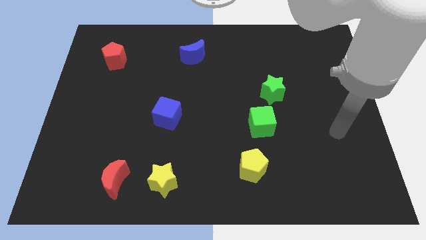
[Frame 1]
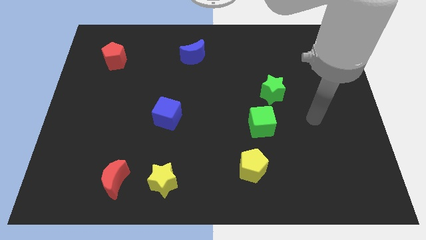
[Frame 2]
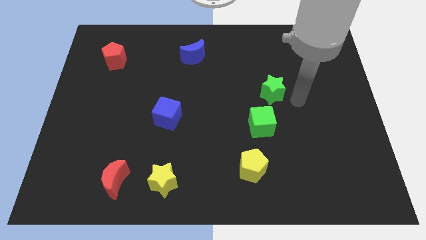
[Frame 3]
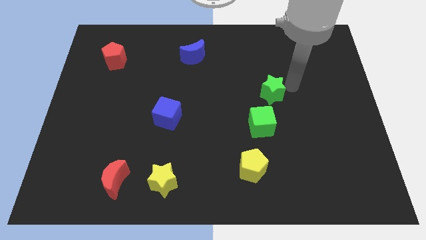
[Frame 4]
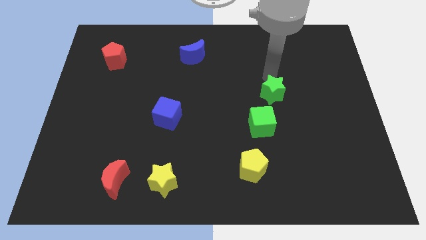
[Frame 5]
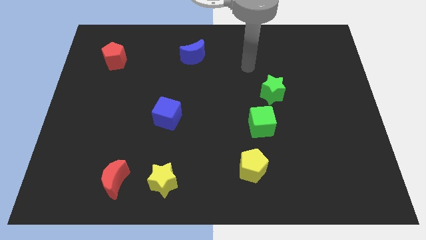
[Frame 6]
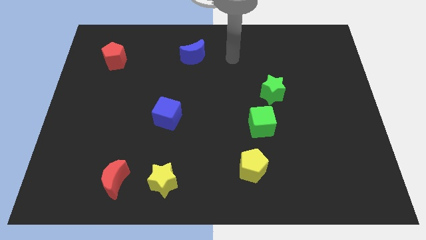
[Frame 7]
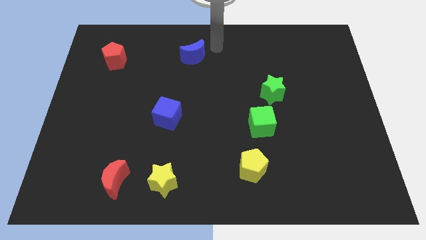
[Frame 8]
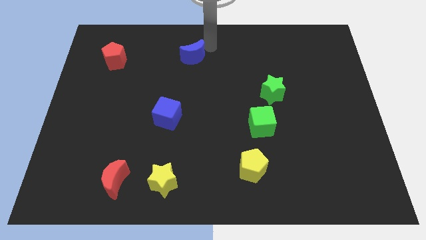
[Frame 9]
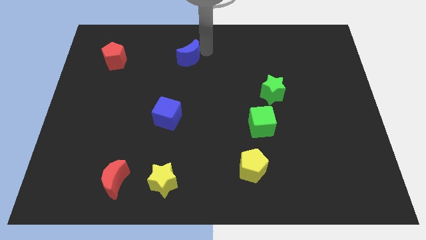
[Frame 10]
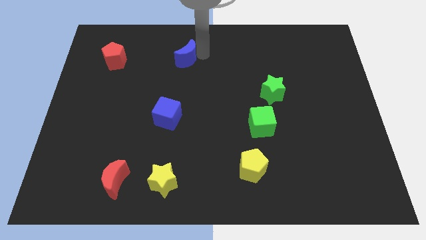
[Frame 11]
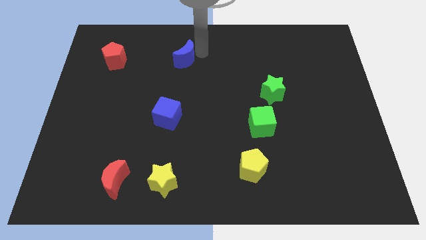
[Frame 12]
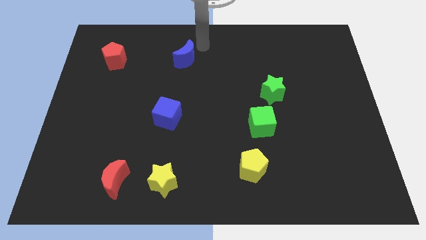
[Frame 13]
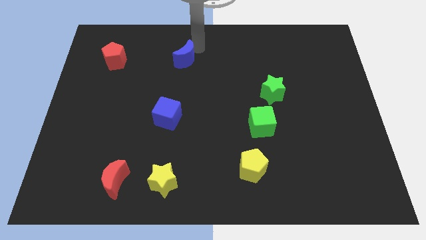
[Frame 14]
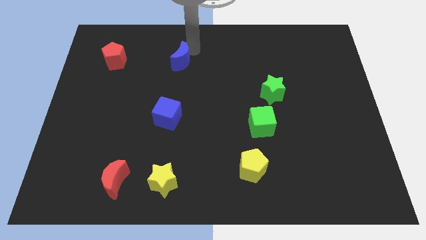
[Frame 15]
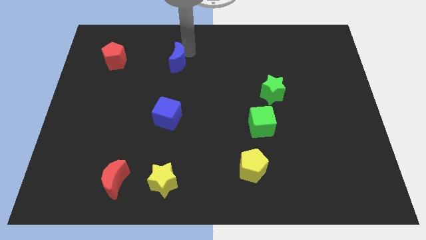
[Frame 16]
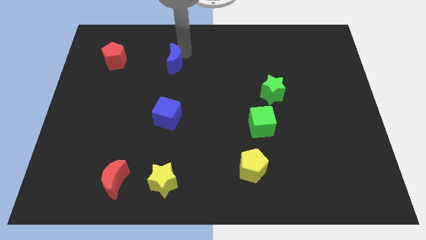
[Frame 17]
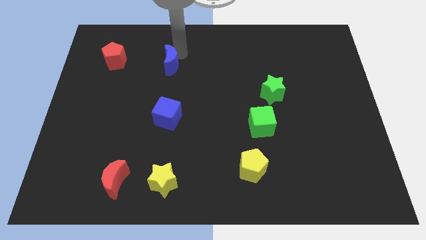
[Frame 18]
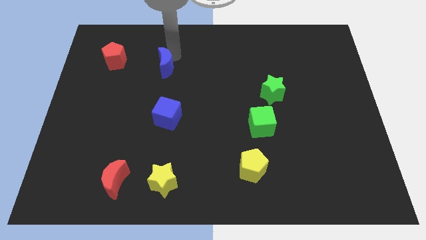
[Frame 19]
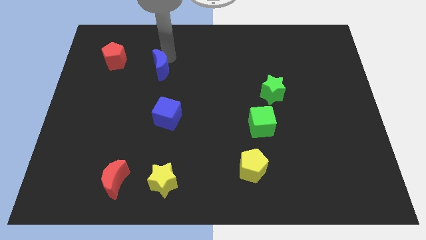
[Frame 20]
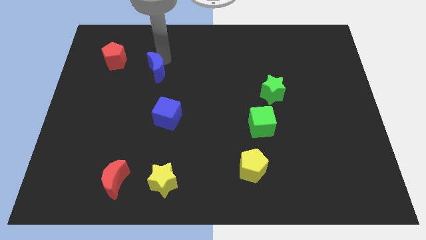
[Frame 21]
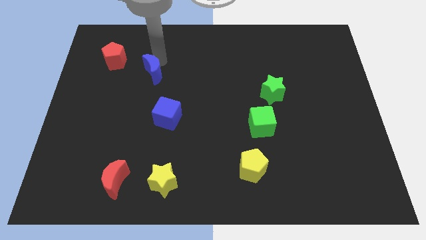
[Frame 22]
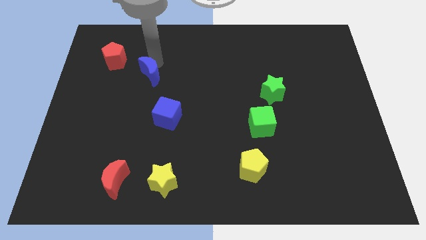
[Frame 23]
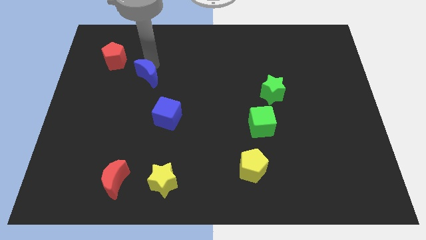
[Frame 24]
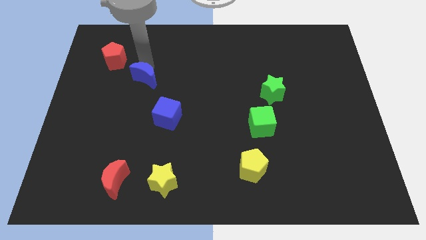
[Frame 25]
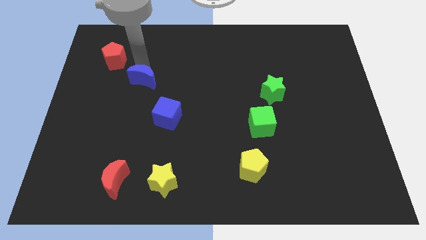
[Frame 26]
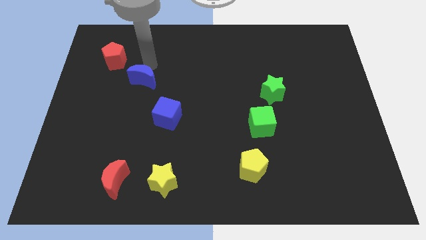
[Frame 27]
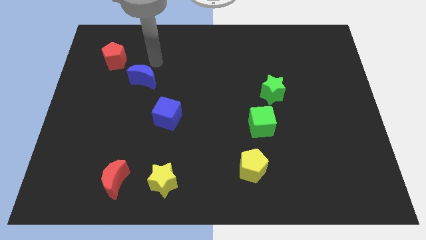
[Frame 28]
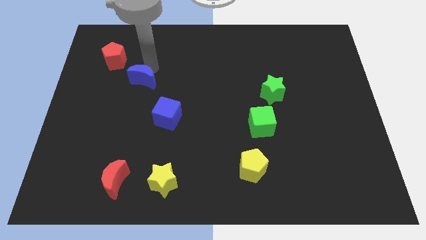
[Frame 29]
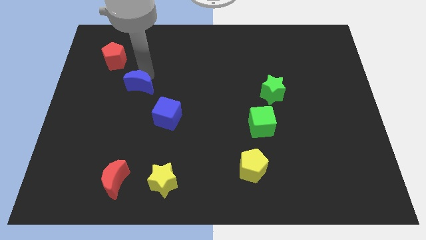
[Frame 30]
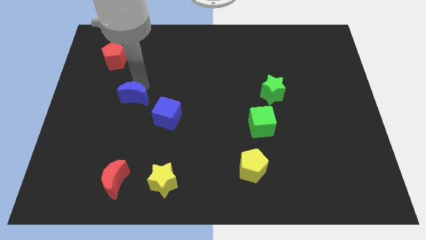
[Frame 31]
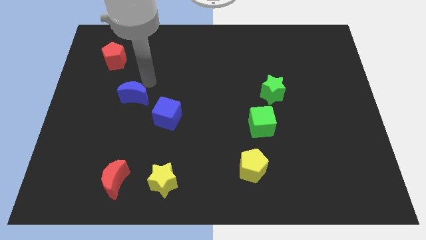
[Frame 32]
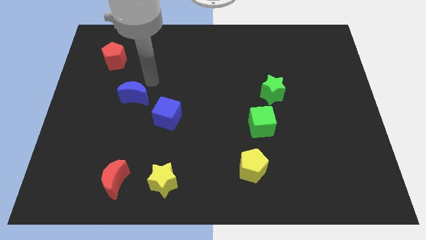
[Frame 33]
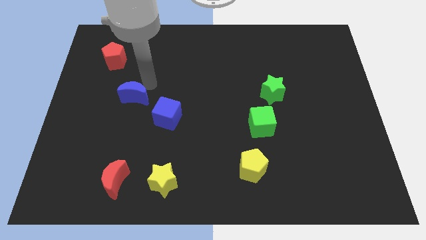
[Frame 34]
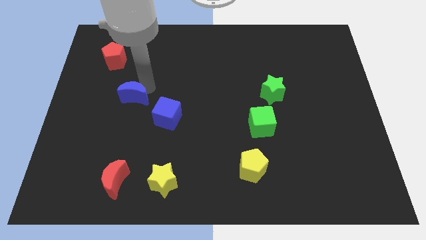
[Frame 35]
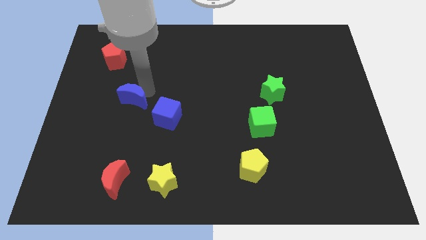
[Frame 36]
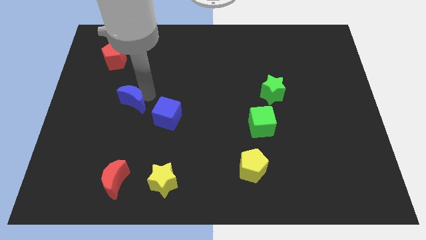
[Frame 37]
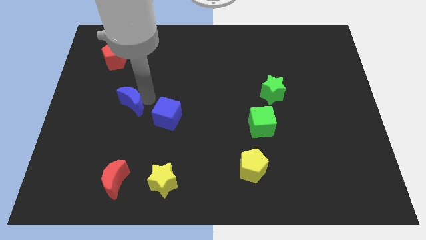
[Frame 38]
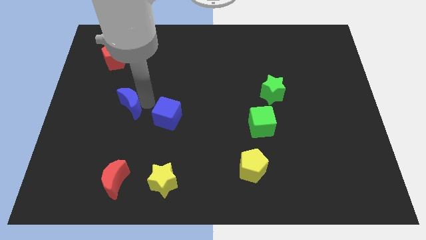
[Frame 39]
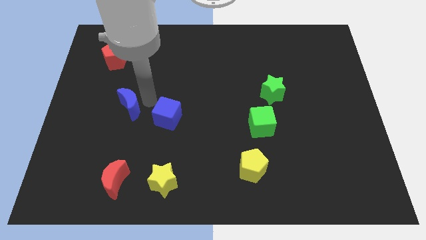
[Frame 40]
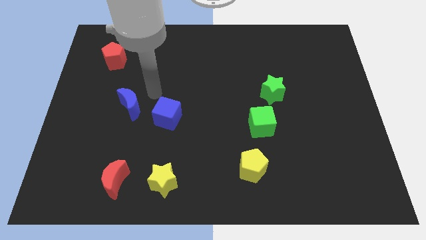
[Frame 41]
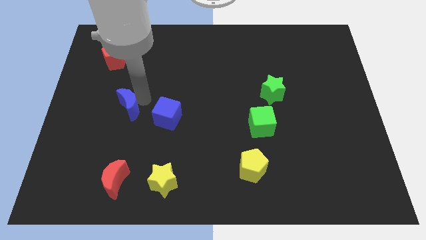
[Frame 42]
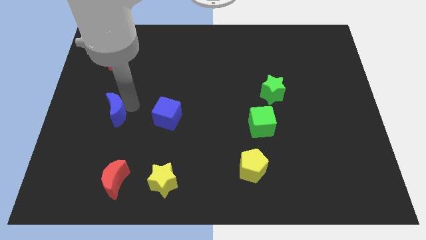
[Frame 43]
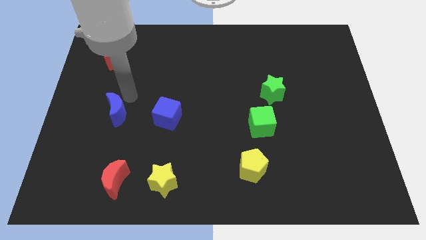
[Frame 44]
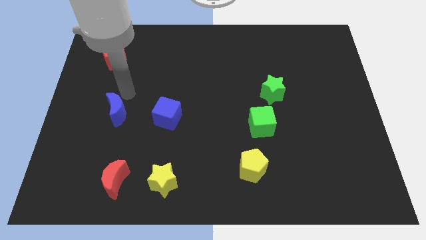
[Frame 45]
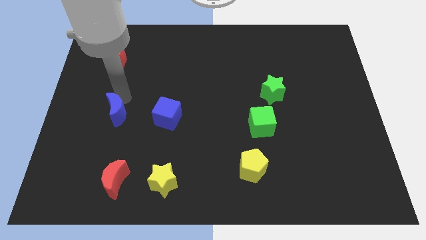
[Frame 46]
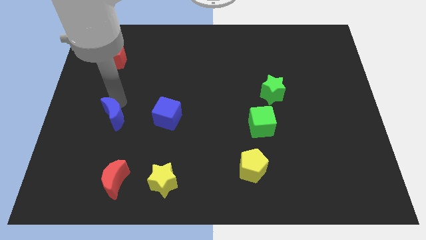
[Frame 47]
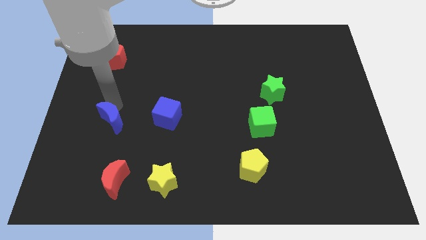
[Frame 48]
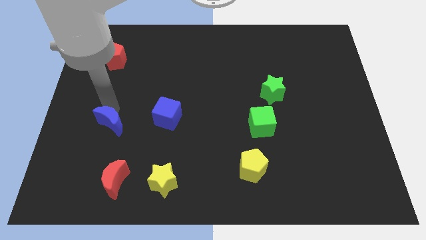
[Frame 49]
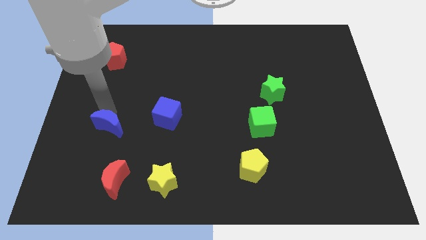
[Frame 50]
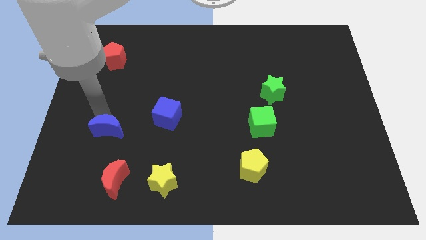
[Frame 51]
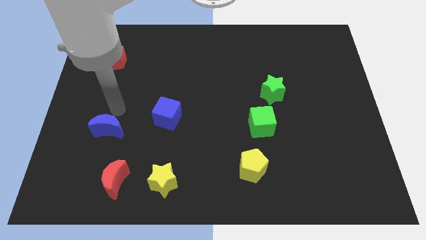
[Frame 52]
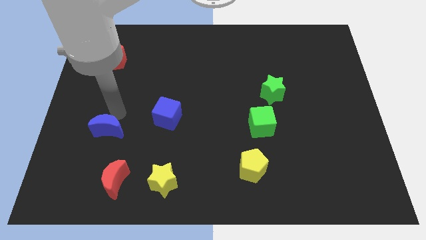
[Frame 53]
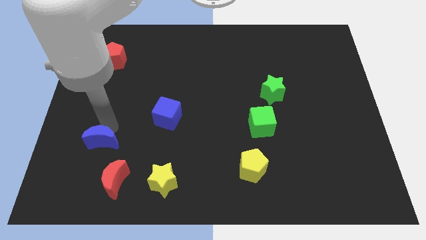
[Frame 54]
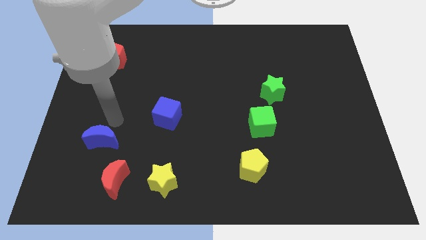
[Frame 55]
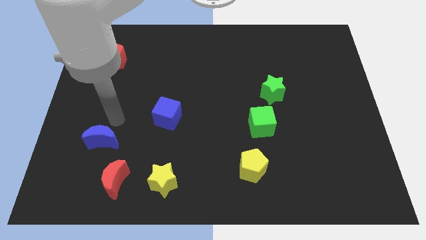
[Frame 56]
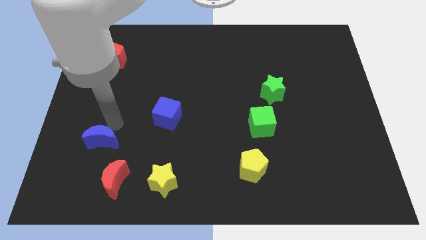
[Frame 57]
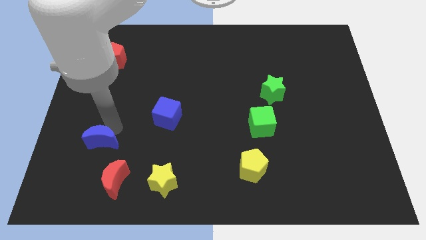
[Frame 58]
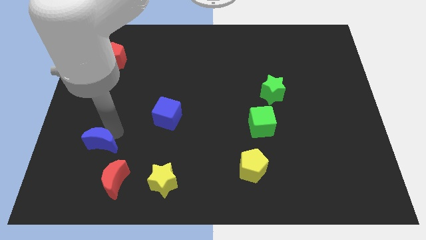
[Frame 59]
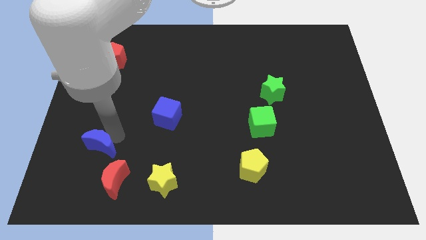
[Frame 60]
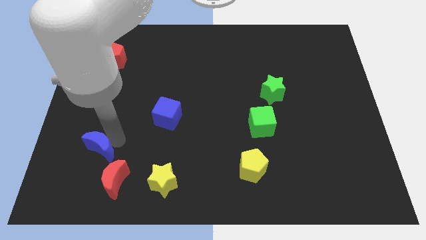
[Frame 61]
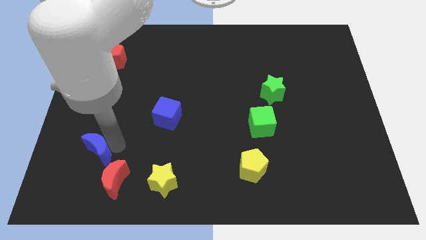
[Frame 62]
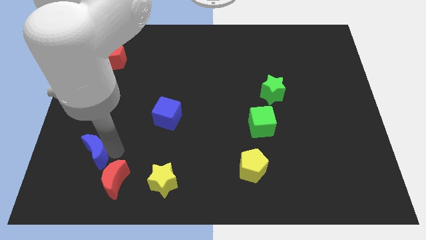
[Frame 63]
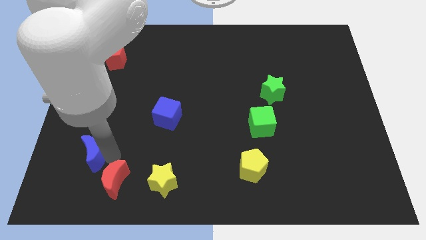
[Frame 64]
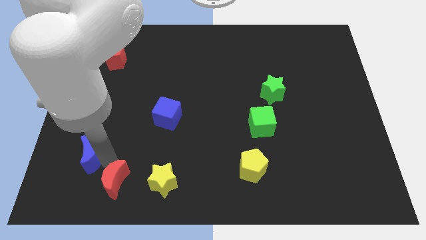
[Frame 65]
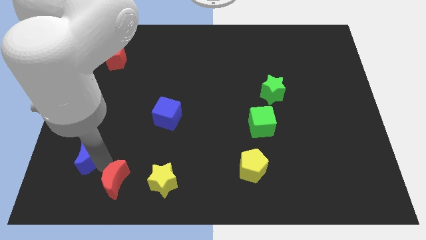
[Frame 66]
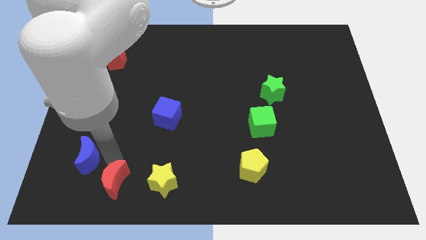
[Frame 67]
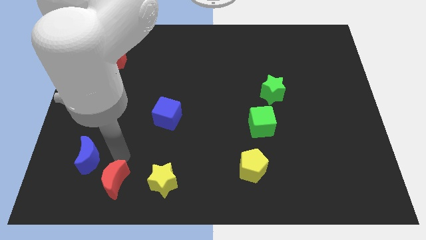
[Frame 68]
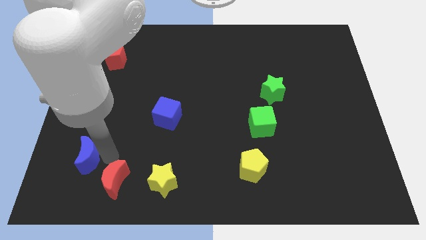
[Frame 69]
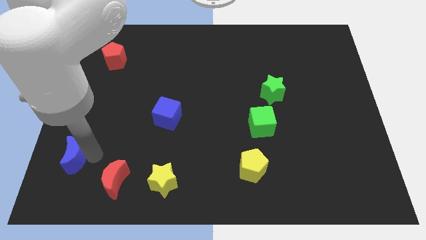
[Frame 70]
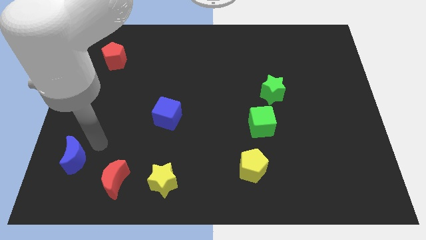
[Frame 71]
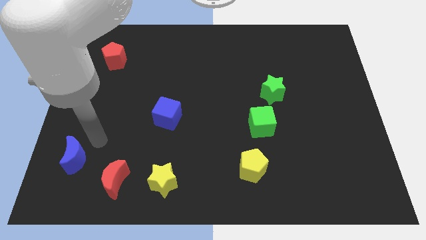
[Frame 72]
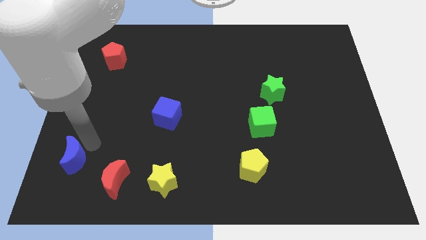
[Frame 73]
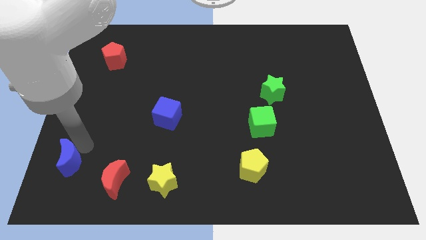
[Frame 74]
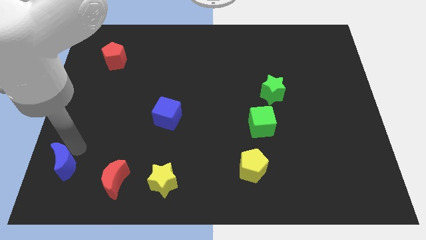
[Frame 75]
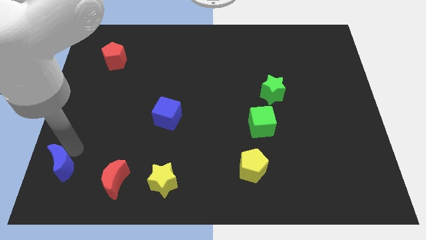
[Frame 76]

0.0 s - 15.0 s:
slide the blue moon to the lower left corner
